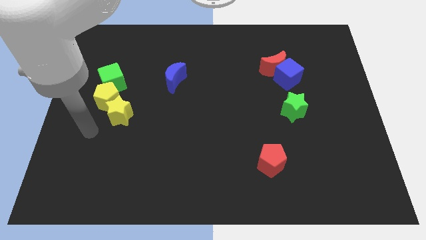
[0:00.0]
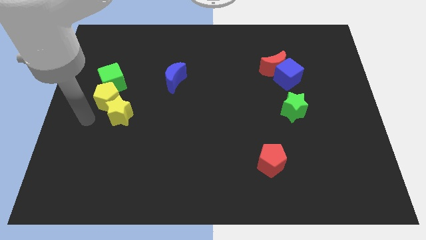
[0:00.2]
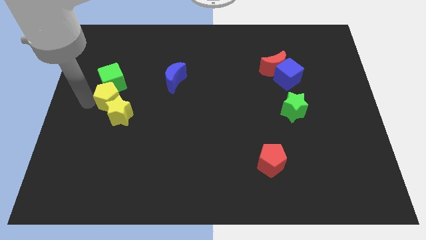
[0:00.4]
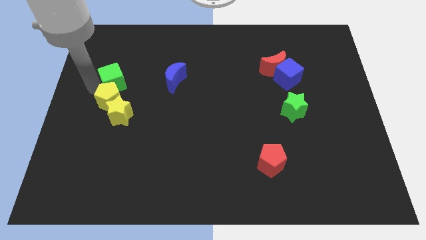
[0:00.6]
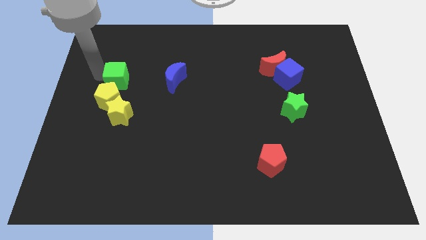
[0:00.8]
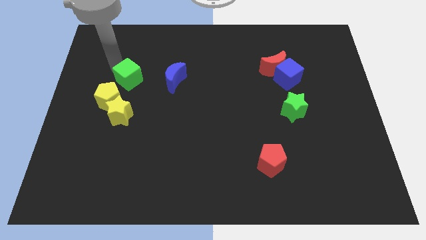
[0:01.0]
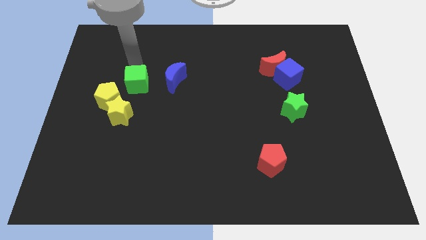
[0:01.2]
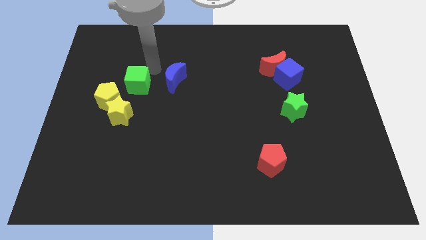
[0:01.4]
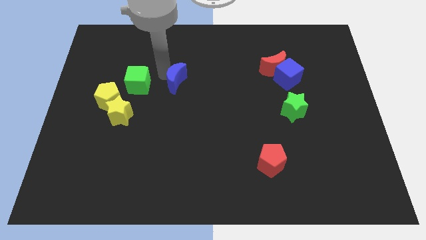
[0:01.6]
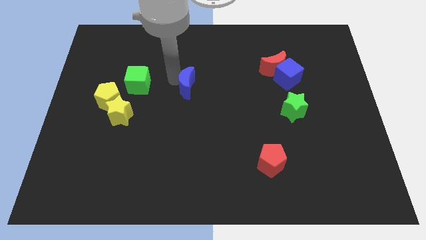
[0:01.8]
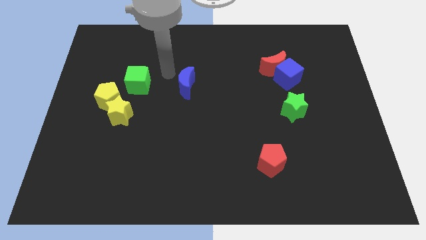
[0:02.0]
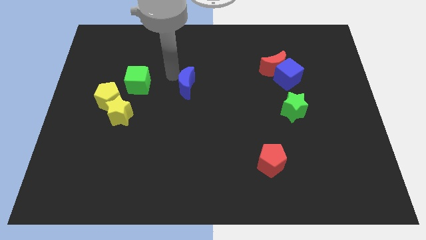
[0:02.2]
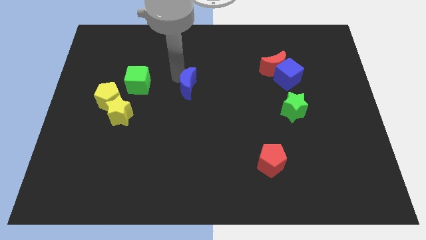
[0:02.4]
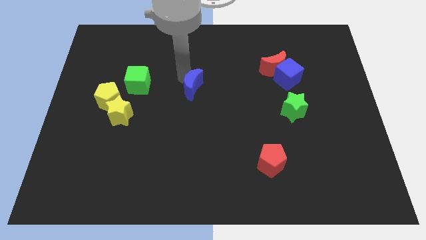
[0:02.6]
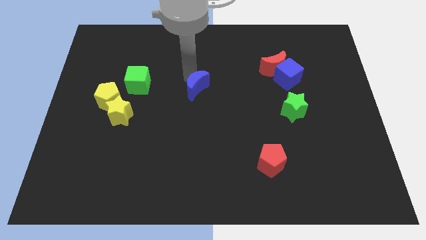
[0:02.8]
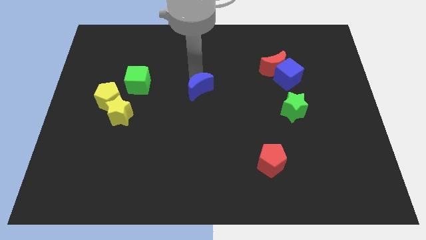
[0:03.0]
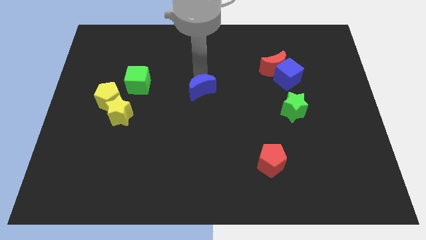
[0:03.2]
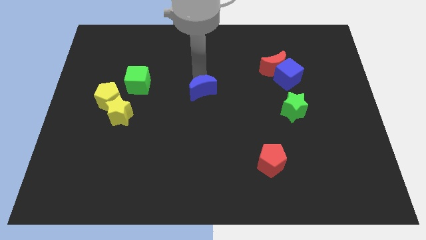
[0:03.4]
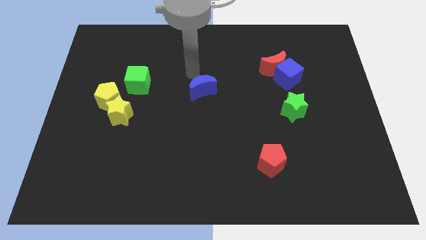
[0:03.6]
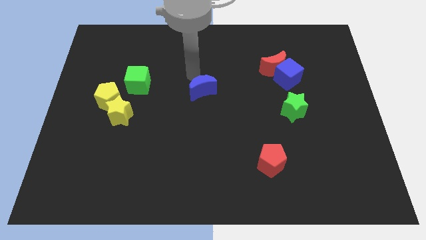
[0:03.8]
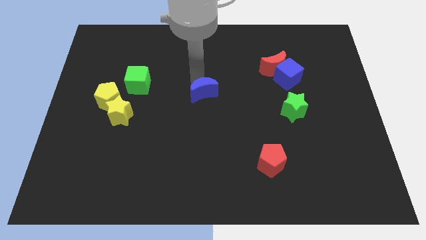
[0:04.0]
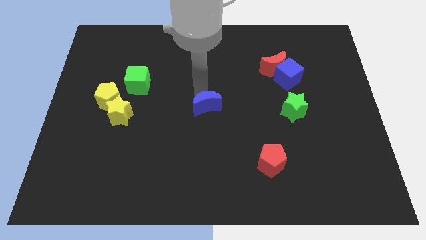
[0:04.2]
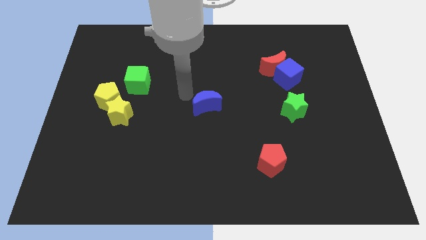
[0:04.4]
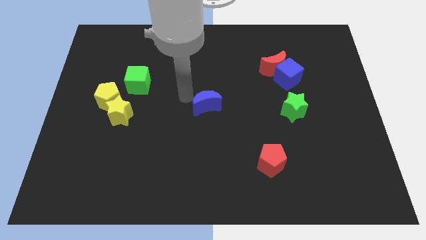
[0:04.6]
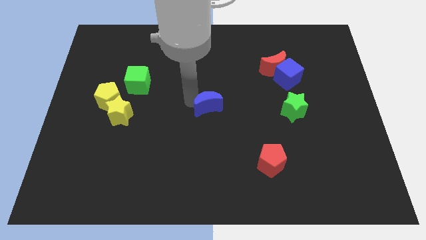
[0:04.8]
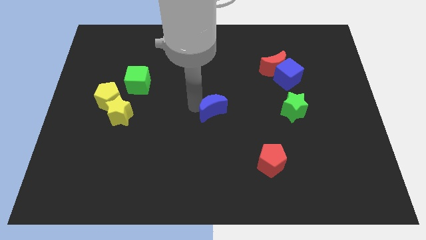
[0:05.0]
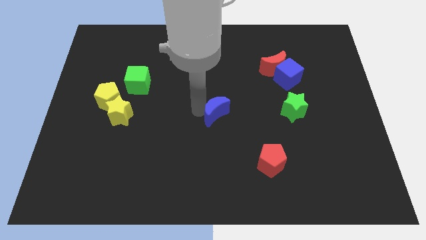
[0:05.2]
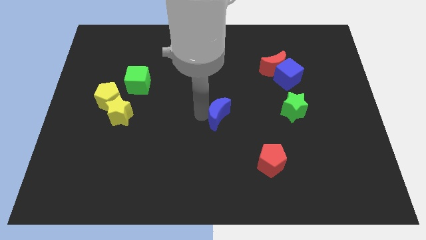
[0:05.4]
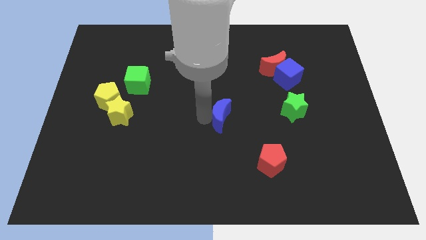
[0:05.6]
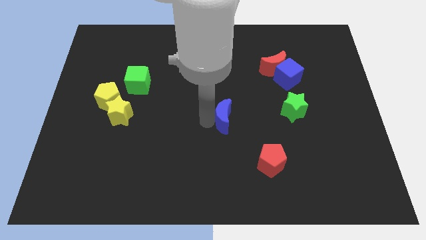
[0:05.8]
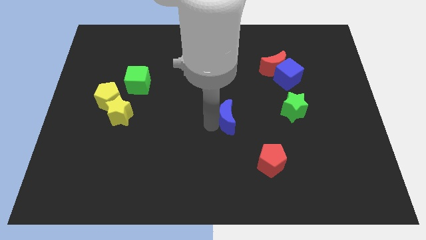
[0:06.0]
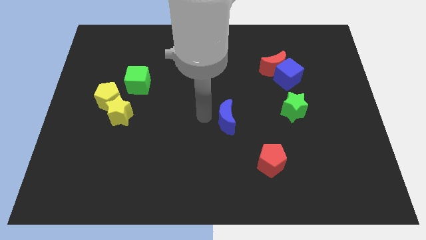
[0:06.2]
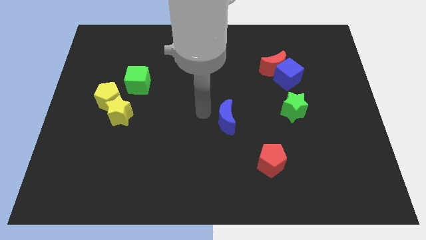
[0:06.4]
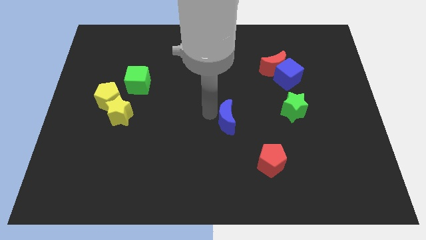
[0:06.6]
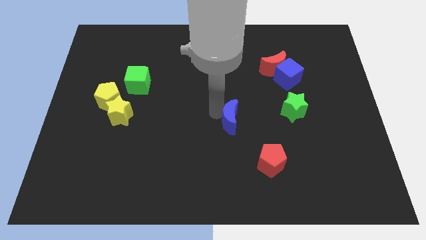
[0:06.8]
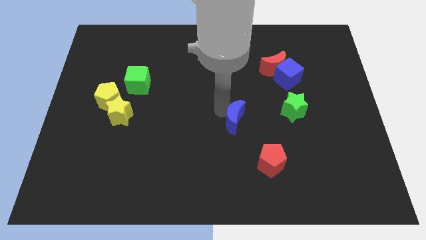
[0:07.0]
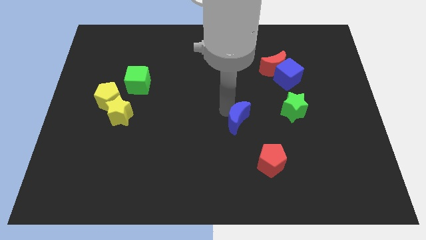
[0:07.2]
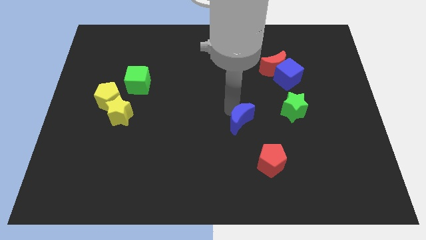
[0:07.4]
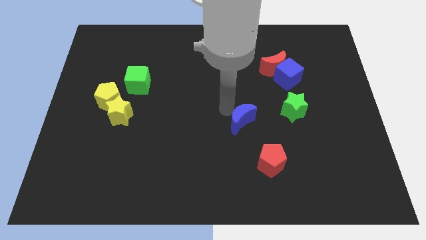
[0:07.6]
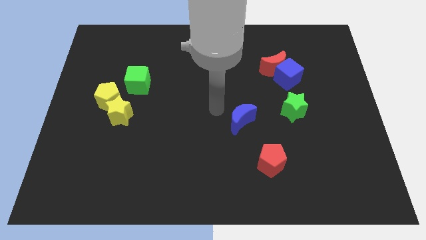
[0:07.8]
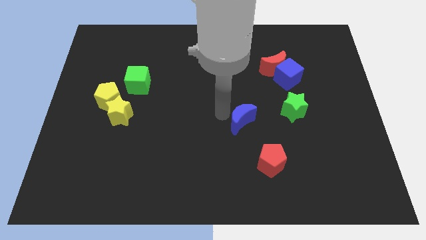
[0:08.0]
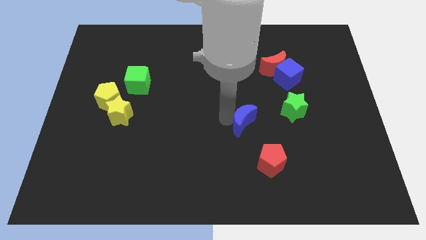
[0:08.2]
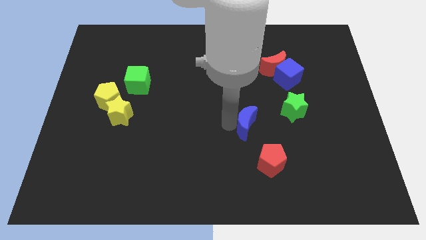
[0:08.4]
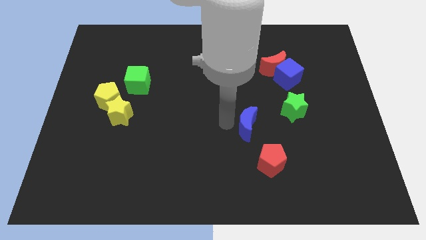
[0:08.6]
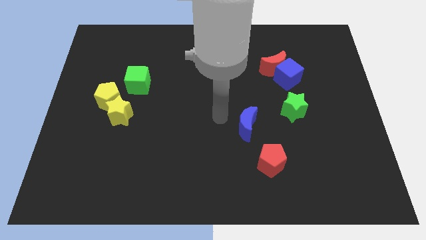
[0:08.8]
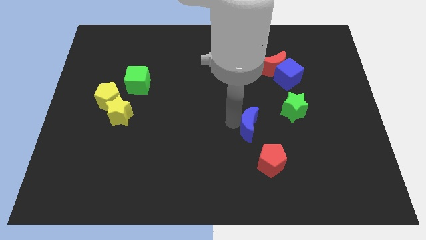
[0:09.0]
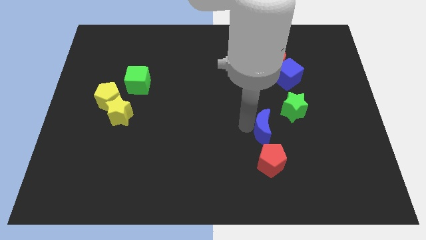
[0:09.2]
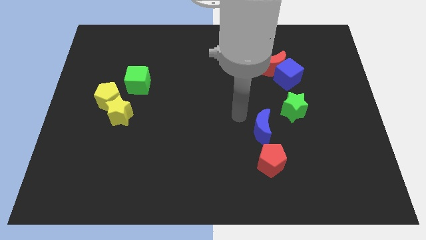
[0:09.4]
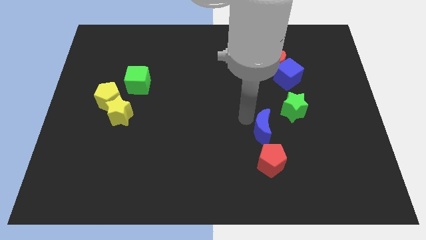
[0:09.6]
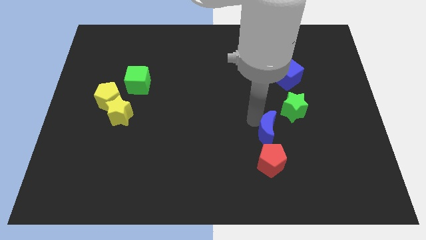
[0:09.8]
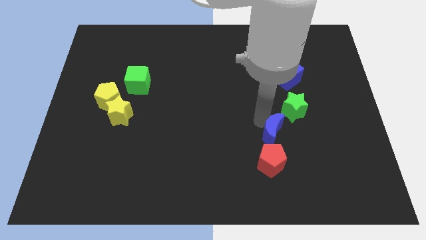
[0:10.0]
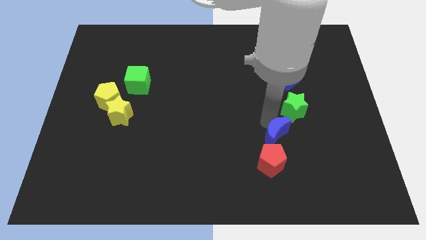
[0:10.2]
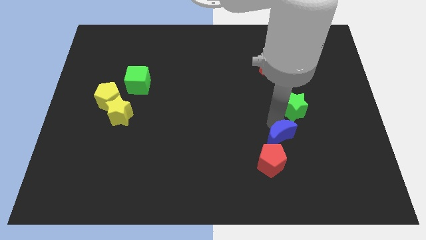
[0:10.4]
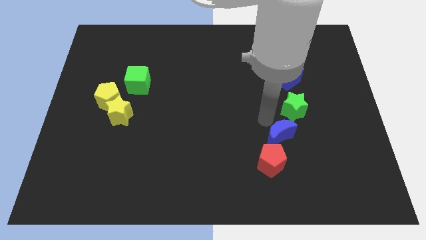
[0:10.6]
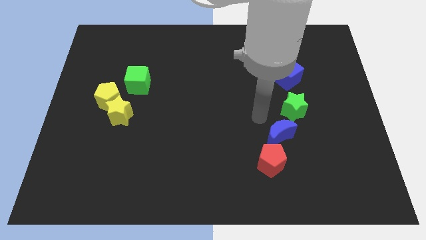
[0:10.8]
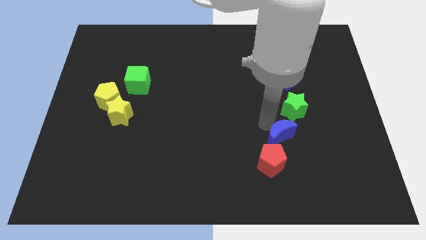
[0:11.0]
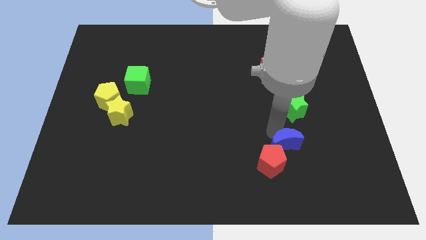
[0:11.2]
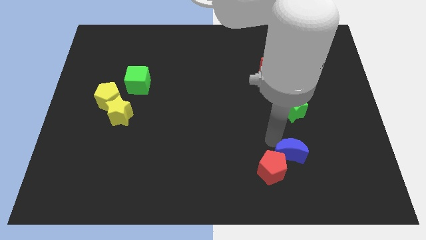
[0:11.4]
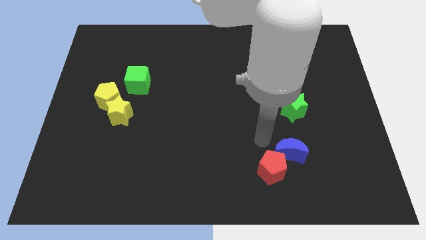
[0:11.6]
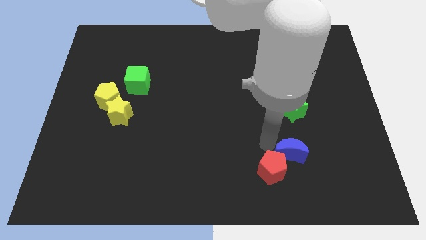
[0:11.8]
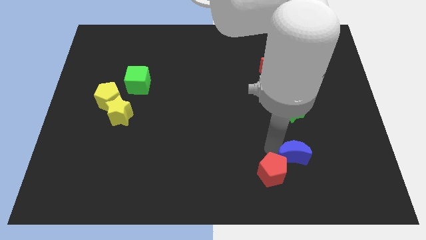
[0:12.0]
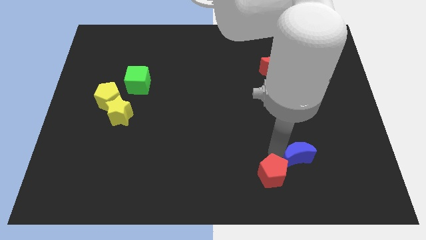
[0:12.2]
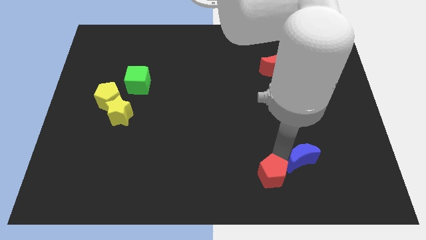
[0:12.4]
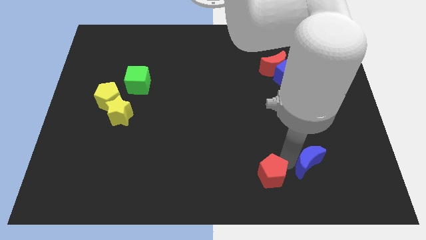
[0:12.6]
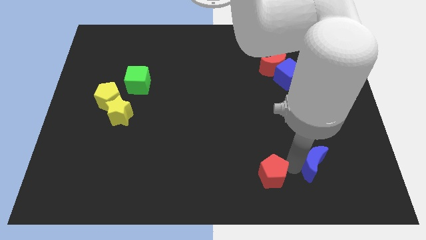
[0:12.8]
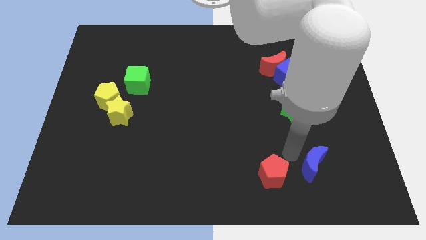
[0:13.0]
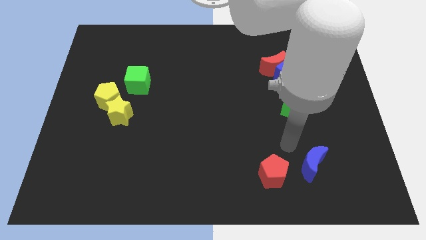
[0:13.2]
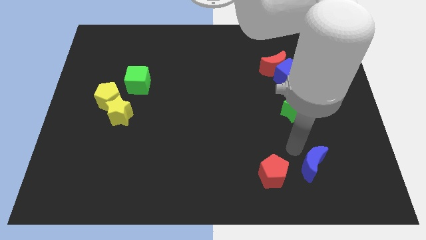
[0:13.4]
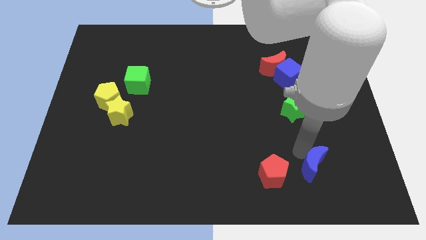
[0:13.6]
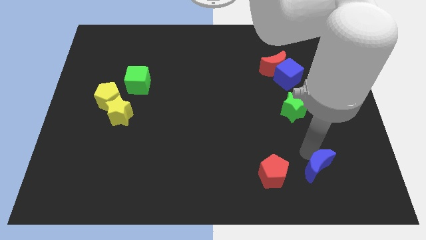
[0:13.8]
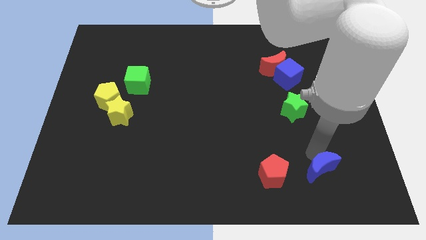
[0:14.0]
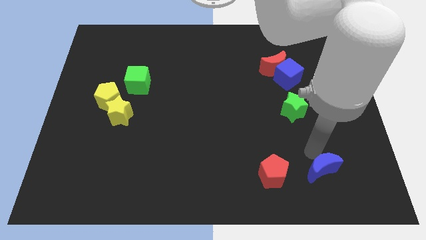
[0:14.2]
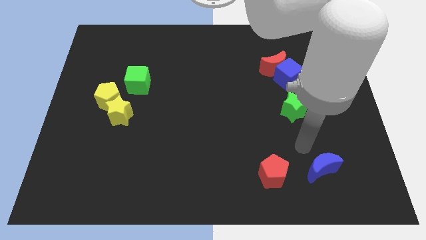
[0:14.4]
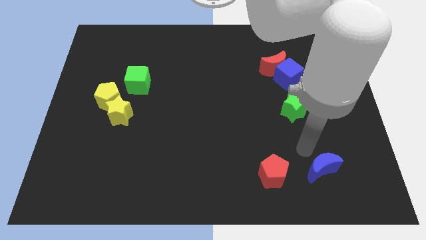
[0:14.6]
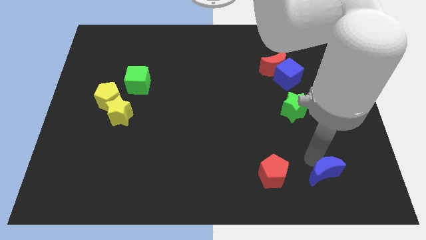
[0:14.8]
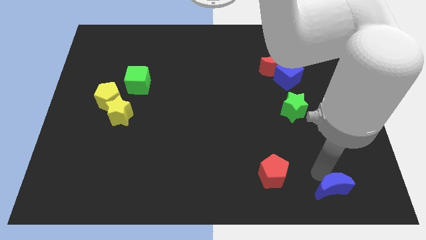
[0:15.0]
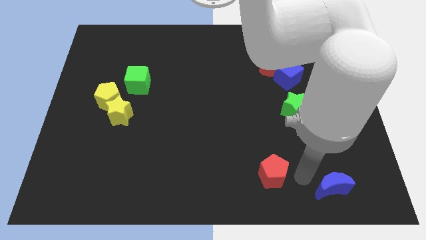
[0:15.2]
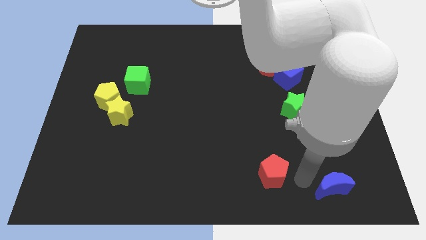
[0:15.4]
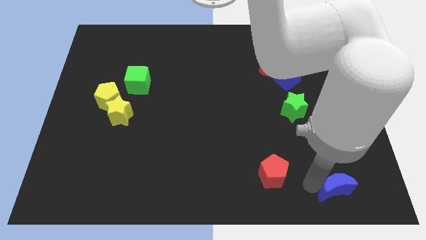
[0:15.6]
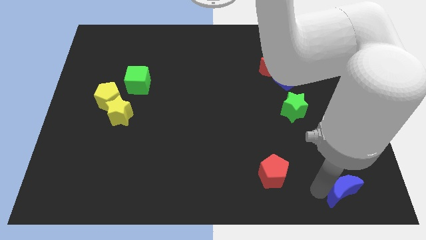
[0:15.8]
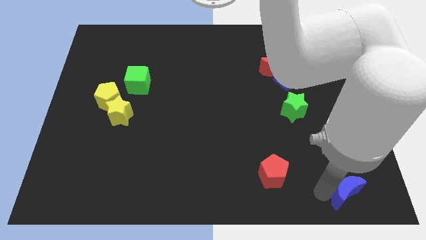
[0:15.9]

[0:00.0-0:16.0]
slide the blue moon to the bottom right of the board
